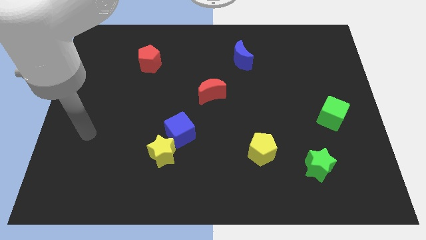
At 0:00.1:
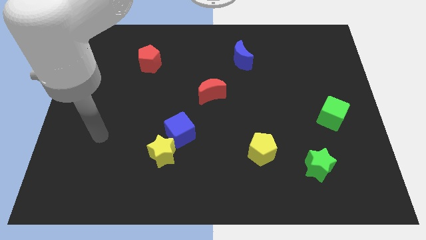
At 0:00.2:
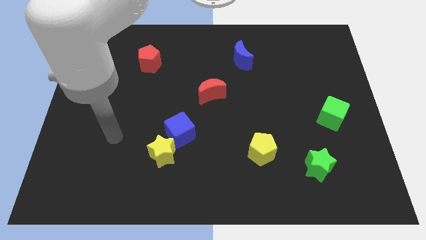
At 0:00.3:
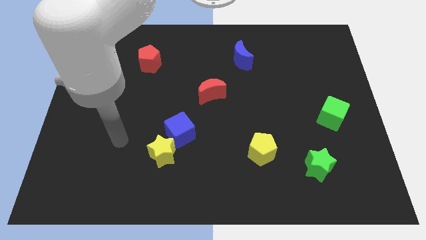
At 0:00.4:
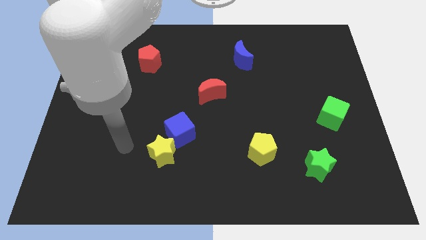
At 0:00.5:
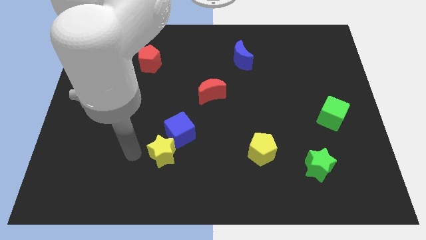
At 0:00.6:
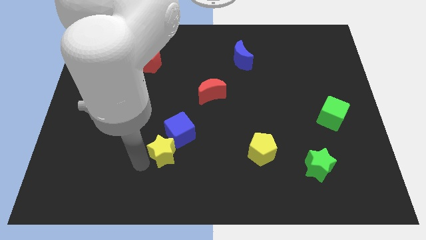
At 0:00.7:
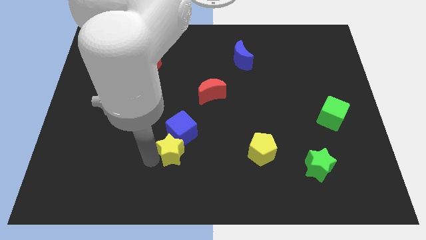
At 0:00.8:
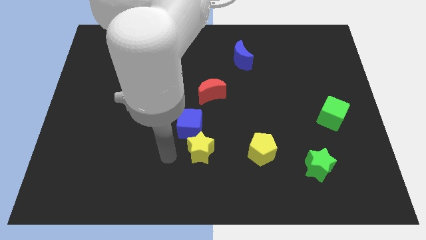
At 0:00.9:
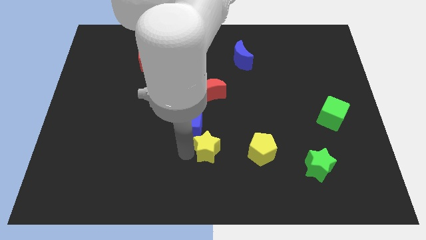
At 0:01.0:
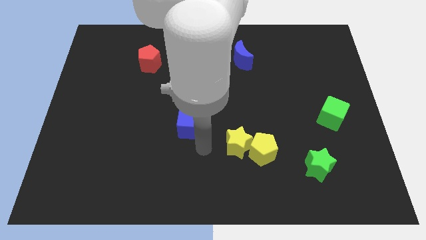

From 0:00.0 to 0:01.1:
pull the blue cube apart from the yellow star

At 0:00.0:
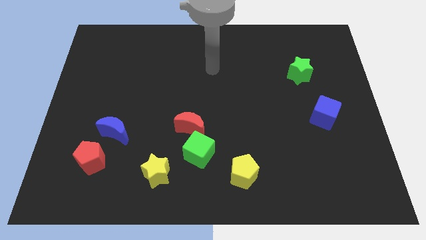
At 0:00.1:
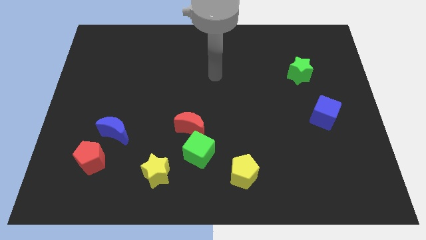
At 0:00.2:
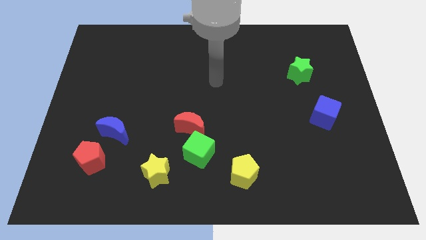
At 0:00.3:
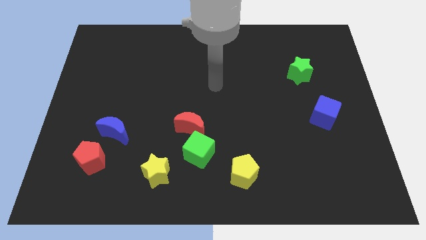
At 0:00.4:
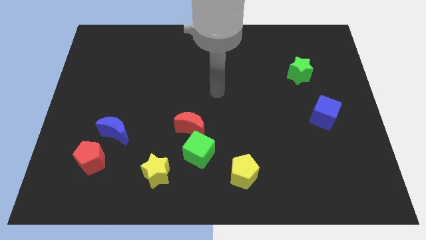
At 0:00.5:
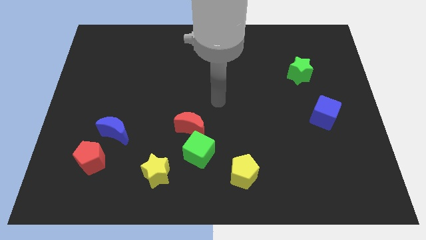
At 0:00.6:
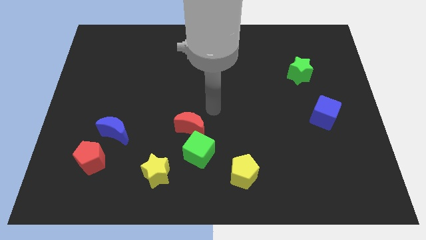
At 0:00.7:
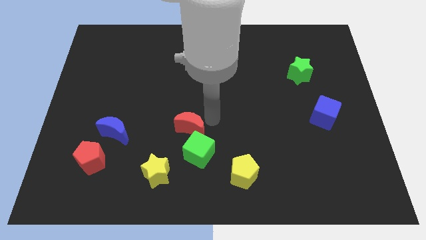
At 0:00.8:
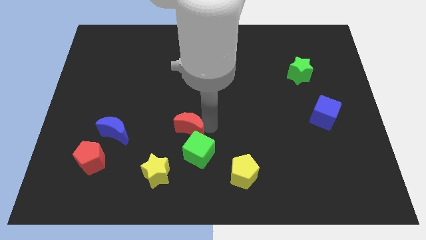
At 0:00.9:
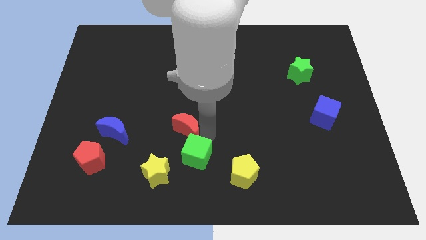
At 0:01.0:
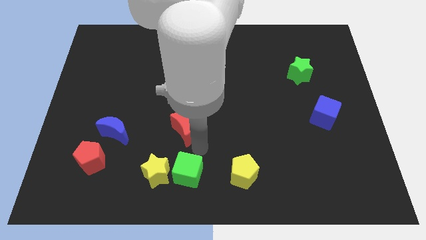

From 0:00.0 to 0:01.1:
pull the red moon apart from the green cube

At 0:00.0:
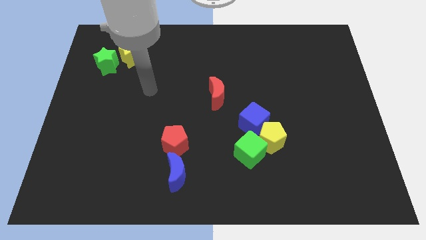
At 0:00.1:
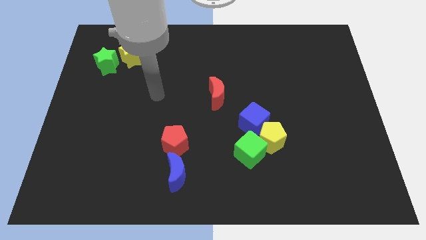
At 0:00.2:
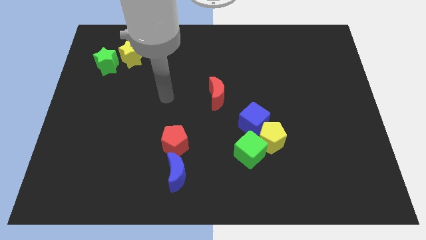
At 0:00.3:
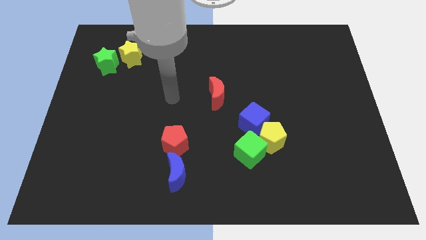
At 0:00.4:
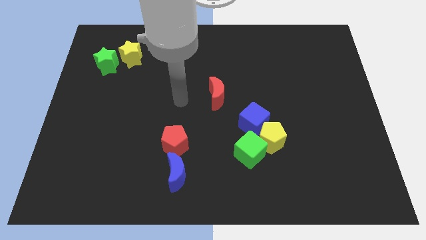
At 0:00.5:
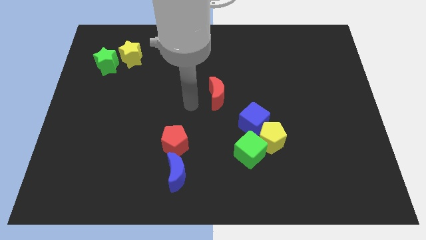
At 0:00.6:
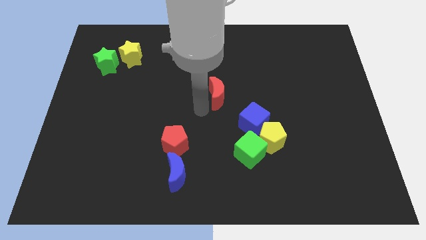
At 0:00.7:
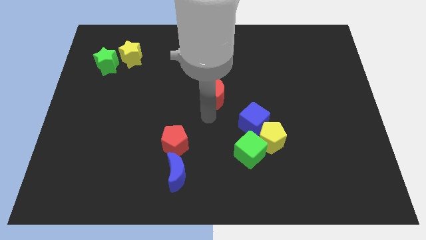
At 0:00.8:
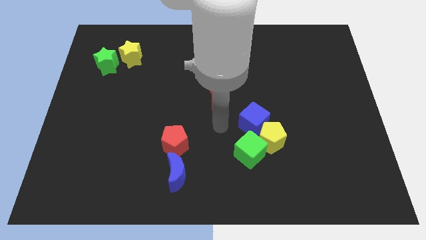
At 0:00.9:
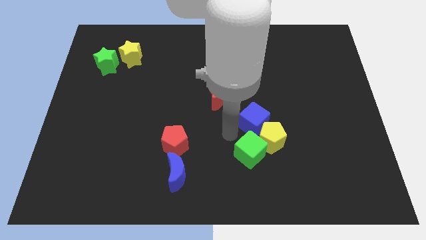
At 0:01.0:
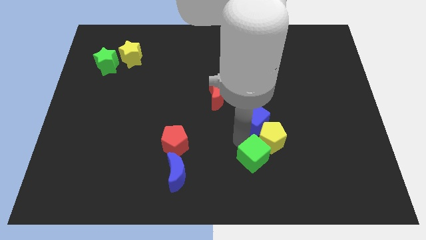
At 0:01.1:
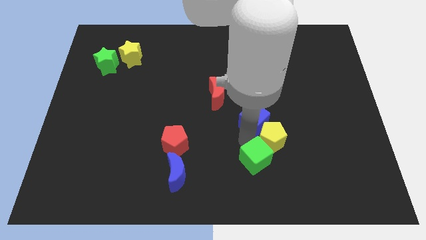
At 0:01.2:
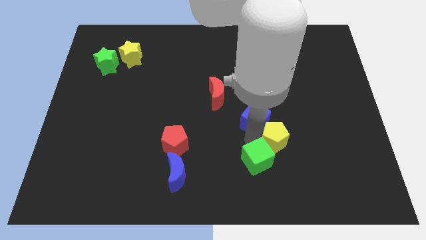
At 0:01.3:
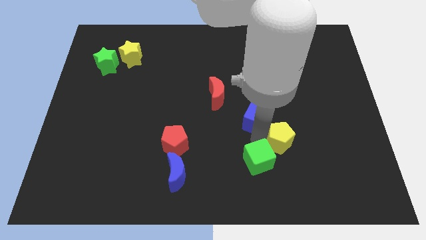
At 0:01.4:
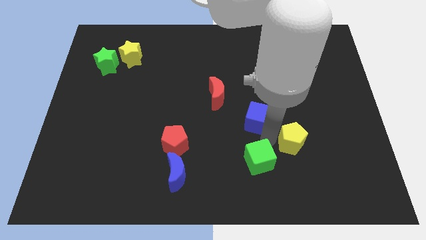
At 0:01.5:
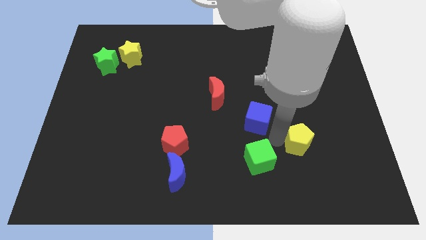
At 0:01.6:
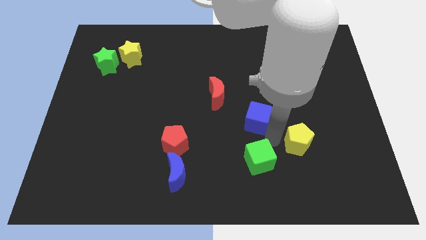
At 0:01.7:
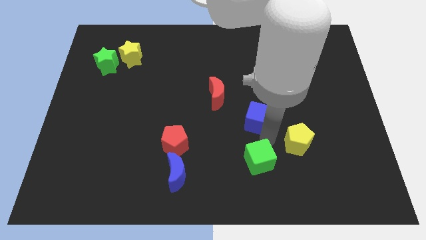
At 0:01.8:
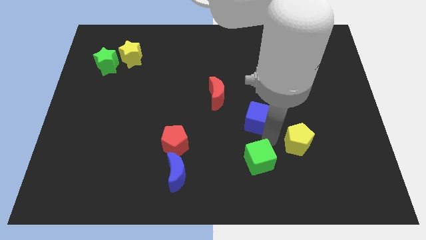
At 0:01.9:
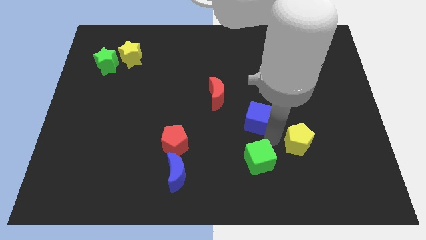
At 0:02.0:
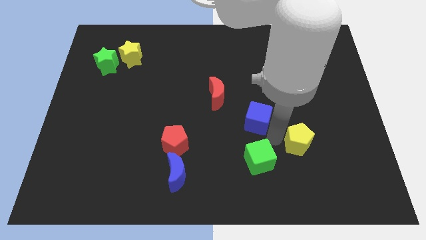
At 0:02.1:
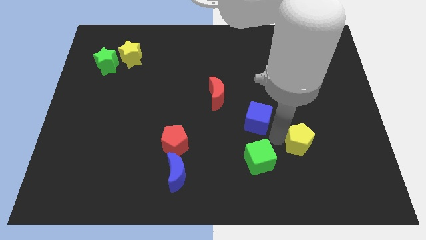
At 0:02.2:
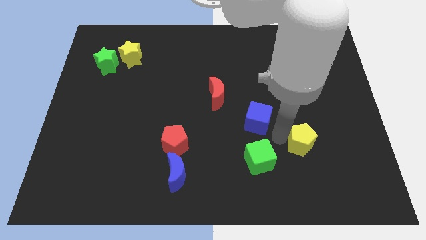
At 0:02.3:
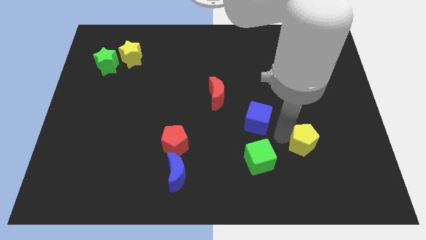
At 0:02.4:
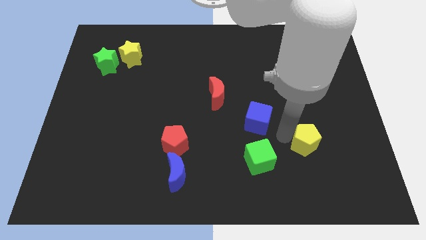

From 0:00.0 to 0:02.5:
separate the yellow pentagon from the blue cube and green cube

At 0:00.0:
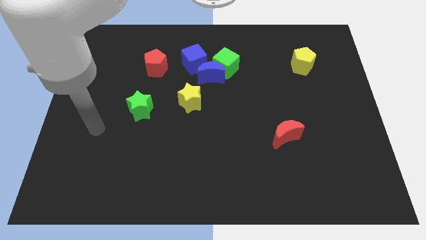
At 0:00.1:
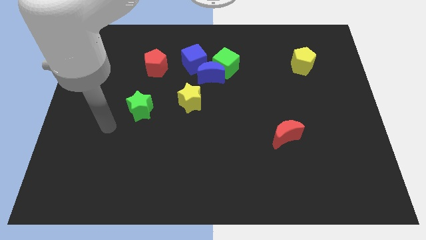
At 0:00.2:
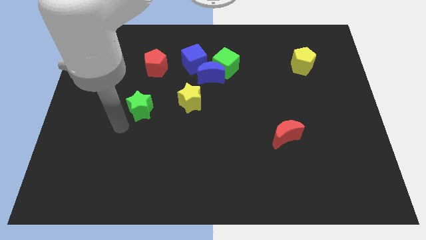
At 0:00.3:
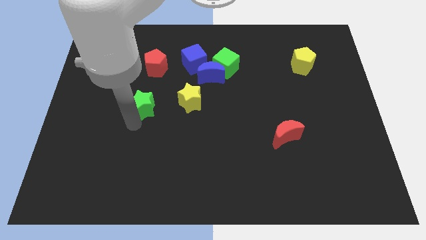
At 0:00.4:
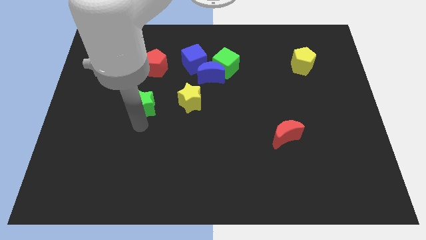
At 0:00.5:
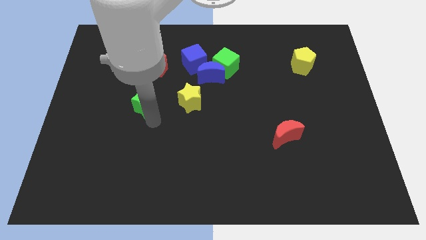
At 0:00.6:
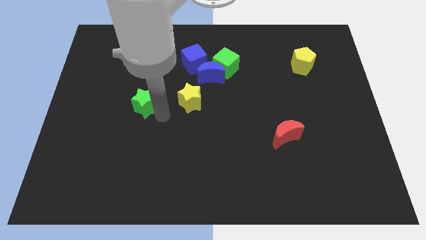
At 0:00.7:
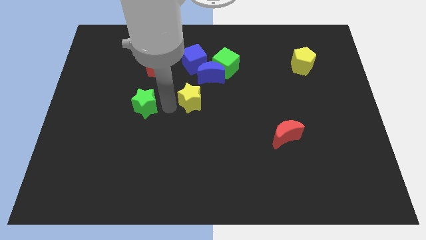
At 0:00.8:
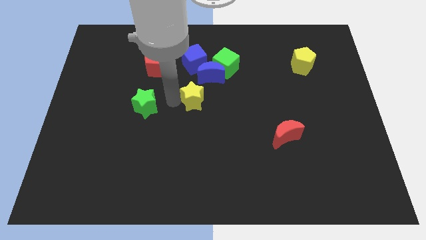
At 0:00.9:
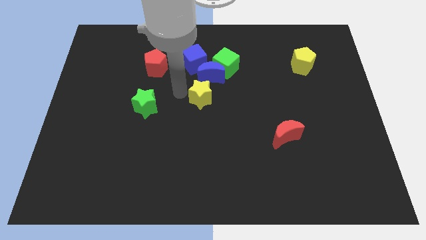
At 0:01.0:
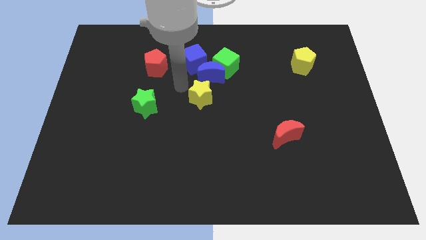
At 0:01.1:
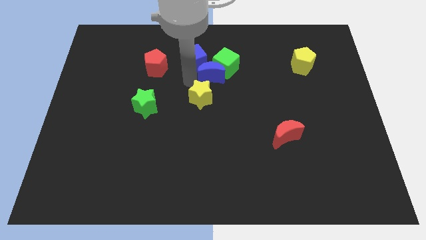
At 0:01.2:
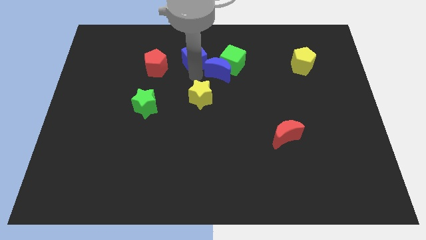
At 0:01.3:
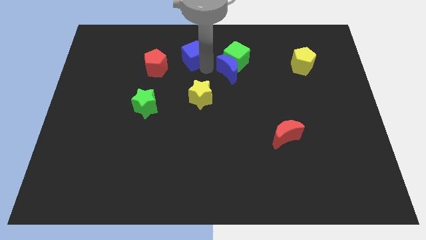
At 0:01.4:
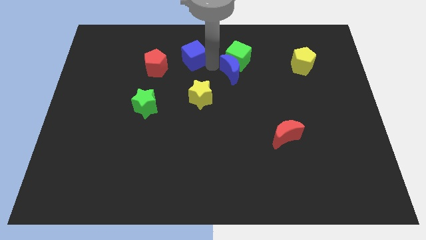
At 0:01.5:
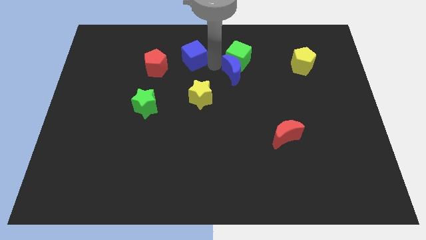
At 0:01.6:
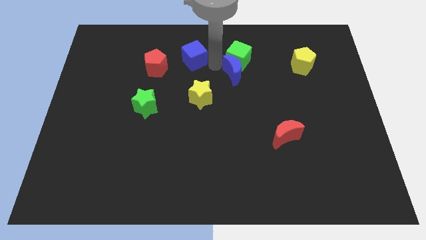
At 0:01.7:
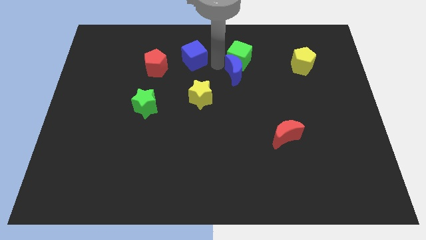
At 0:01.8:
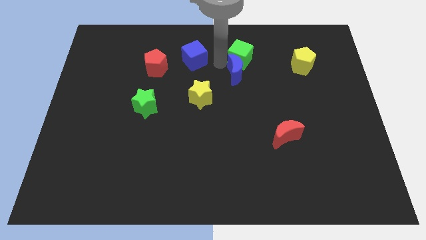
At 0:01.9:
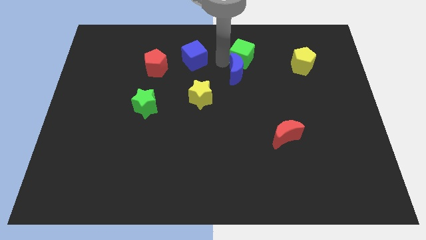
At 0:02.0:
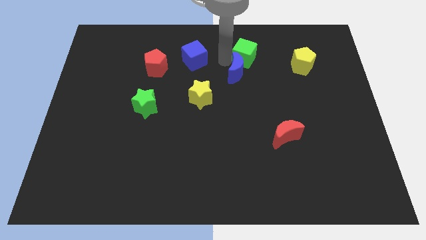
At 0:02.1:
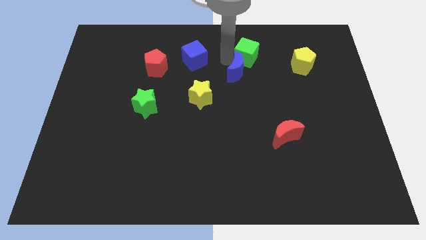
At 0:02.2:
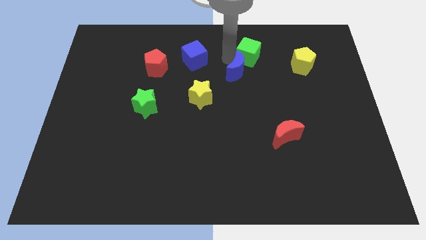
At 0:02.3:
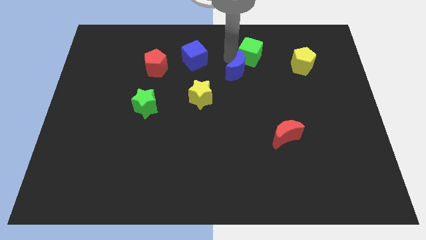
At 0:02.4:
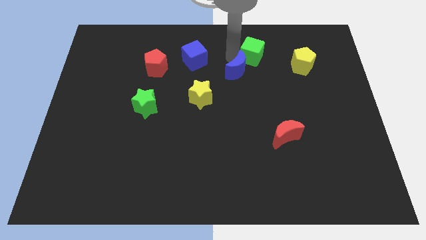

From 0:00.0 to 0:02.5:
separate the green cube from the blue moon and blue cube

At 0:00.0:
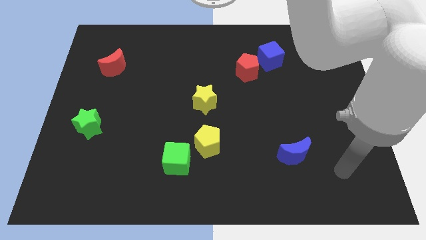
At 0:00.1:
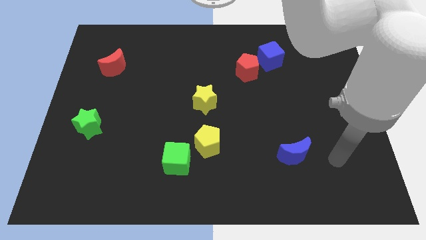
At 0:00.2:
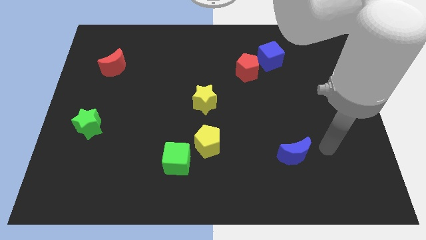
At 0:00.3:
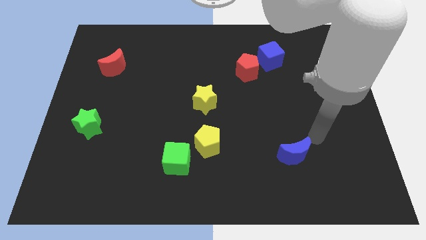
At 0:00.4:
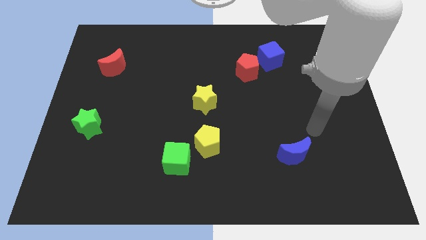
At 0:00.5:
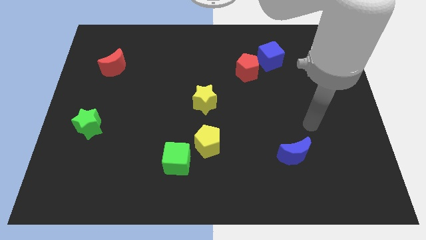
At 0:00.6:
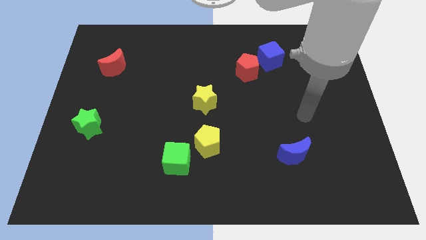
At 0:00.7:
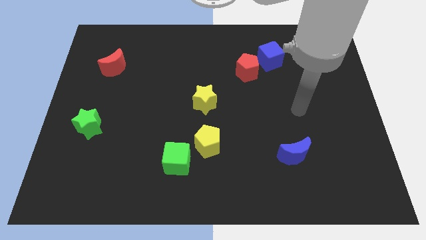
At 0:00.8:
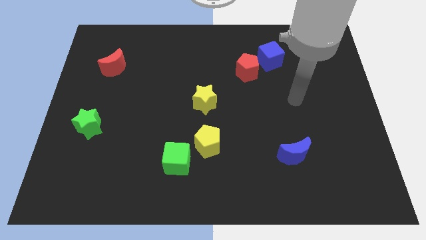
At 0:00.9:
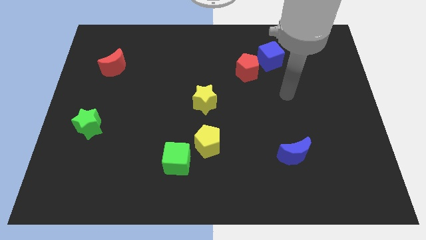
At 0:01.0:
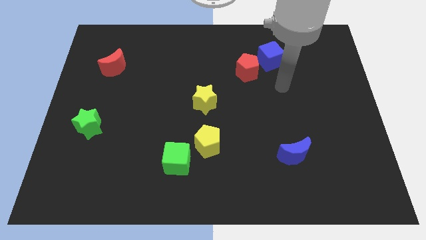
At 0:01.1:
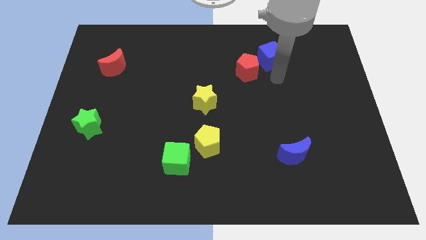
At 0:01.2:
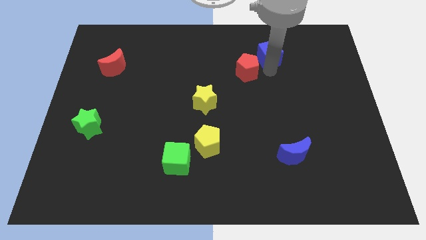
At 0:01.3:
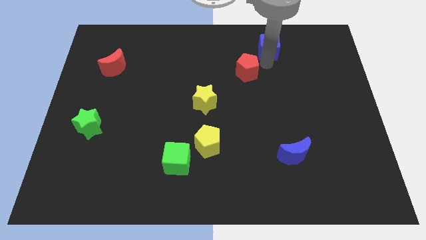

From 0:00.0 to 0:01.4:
move the red pentagon away from the blue cube

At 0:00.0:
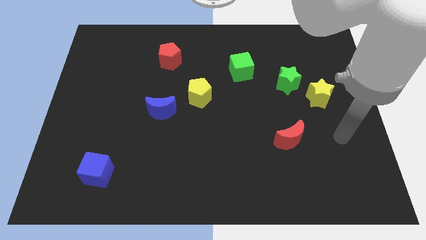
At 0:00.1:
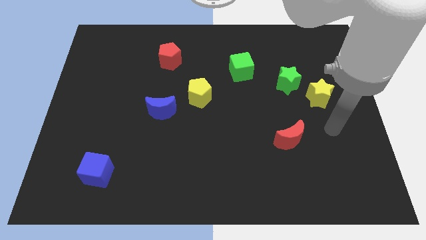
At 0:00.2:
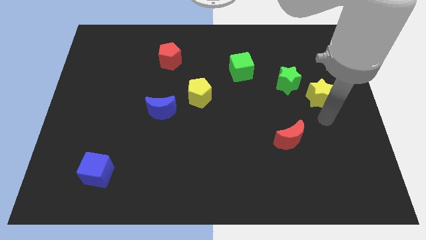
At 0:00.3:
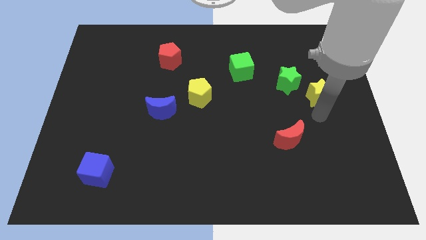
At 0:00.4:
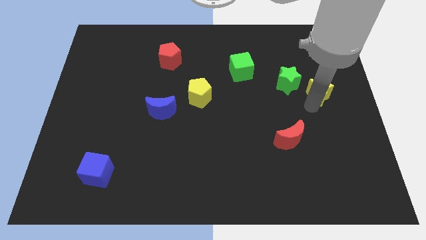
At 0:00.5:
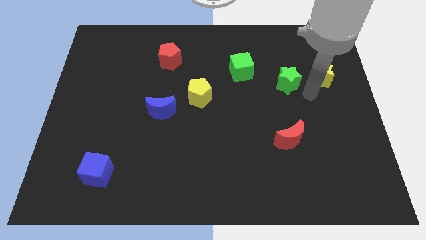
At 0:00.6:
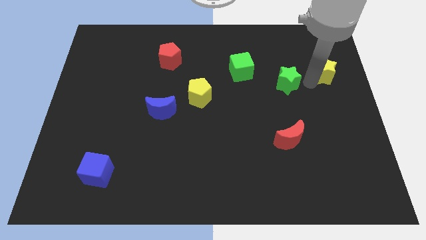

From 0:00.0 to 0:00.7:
separate the green star from the yellow star
